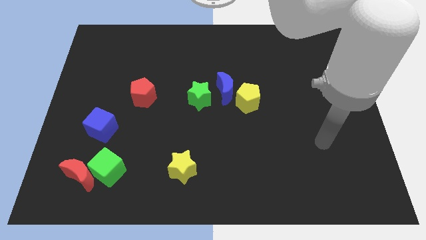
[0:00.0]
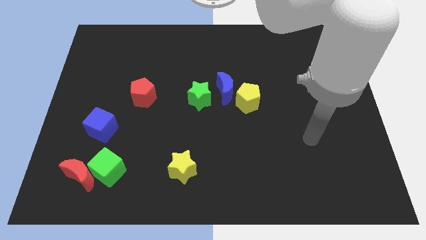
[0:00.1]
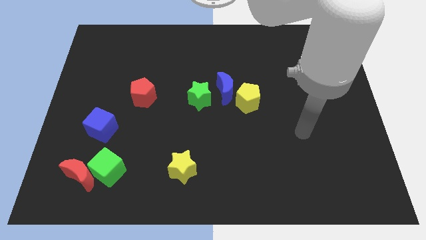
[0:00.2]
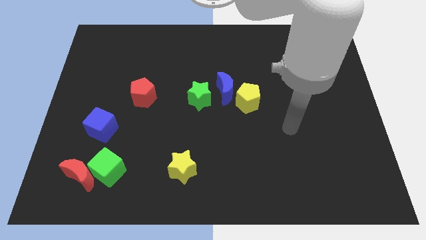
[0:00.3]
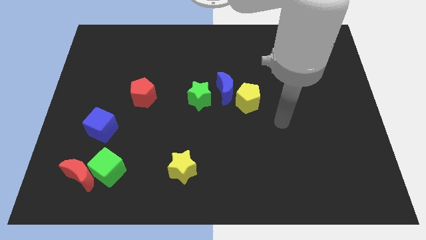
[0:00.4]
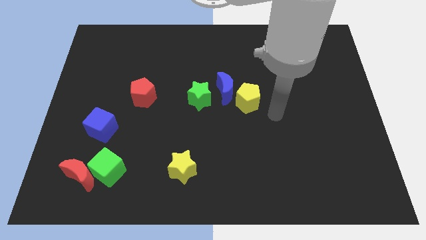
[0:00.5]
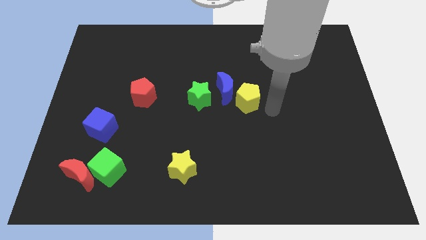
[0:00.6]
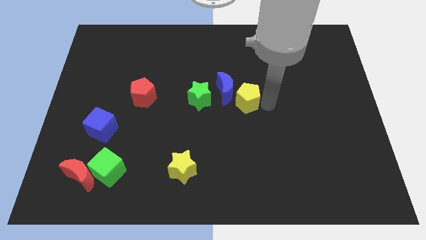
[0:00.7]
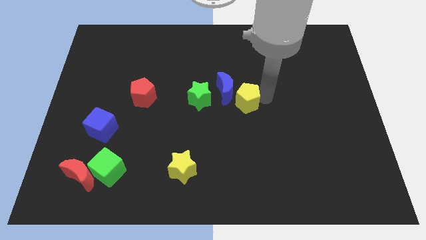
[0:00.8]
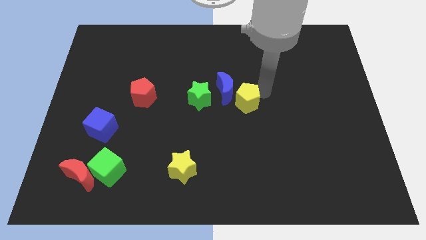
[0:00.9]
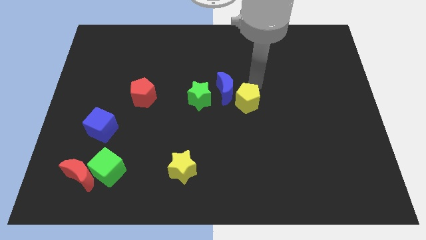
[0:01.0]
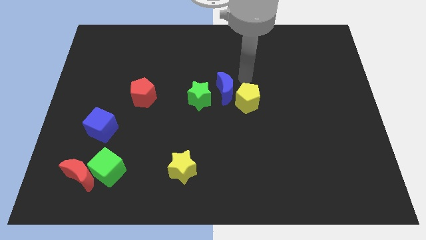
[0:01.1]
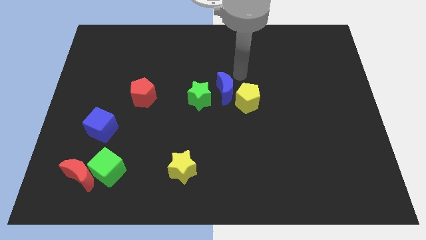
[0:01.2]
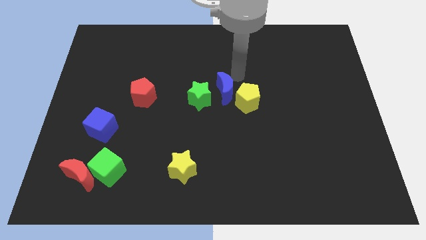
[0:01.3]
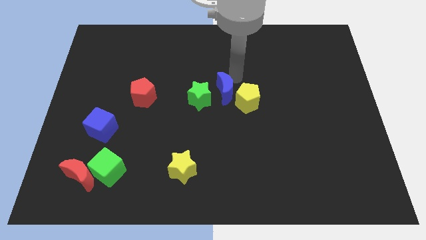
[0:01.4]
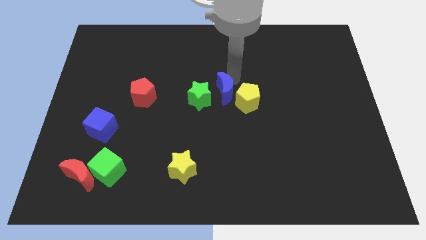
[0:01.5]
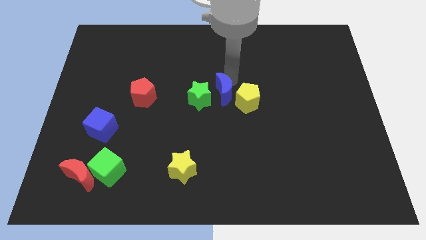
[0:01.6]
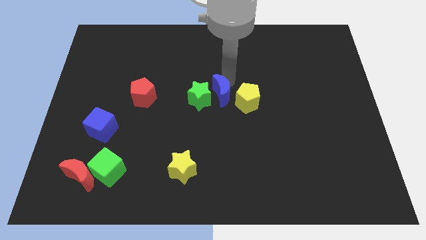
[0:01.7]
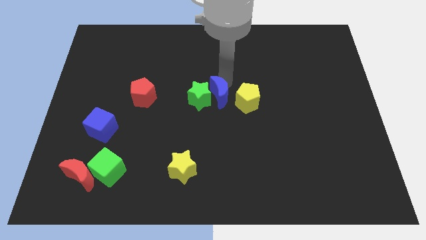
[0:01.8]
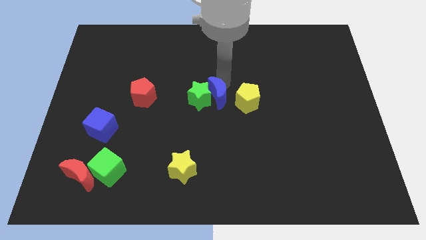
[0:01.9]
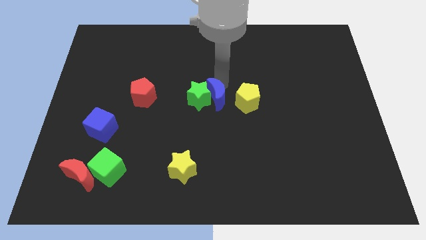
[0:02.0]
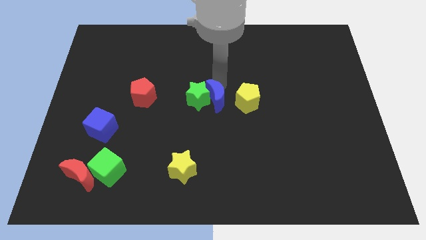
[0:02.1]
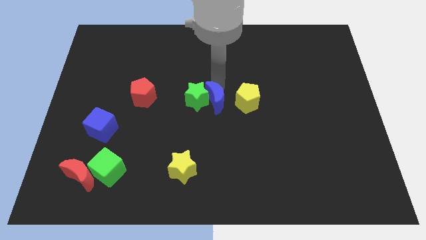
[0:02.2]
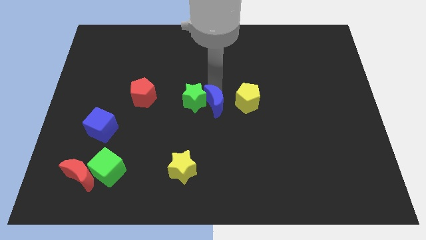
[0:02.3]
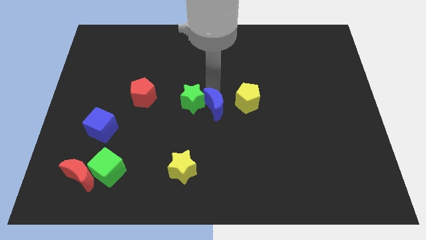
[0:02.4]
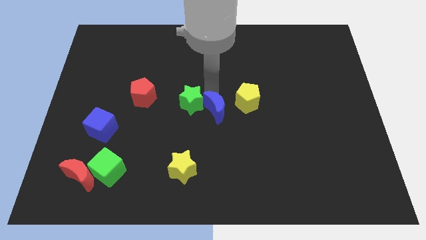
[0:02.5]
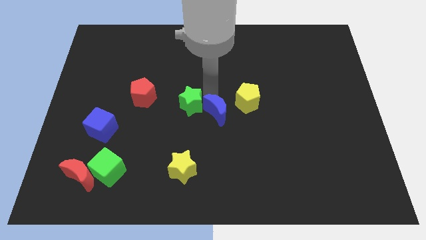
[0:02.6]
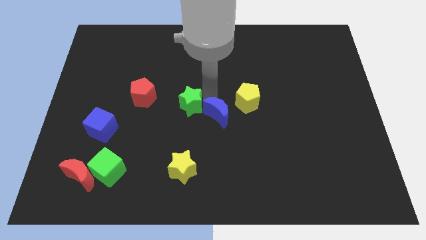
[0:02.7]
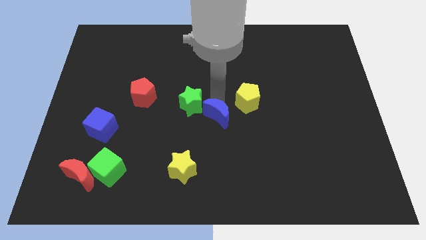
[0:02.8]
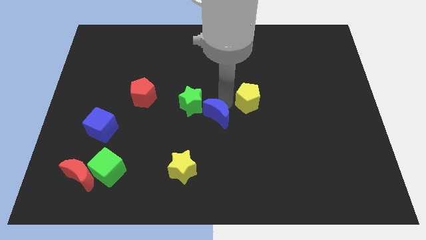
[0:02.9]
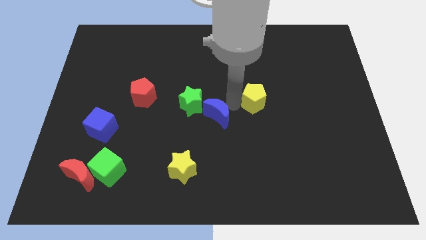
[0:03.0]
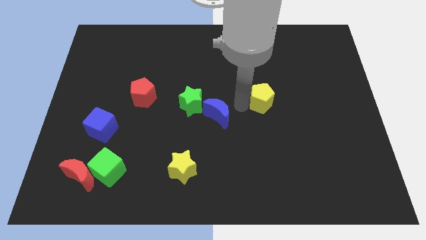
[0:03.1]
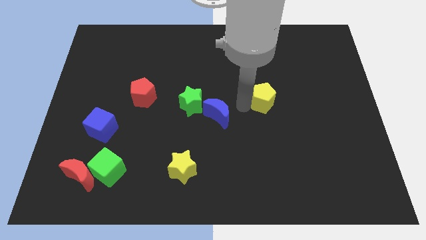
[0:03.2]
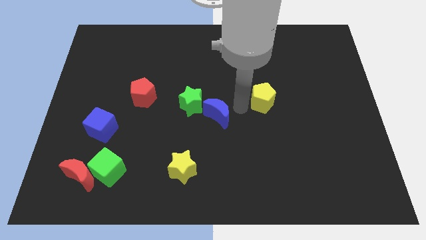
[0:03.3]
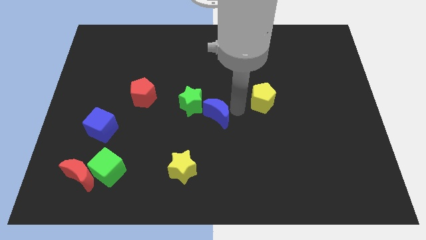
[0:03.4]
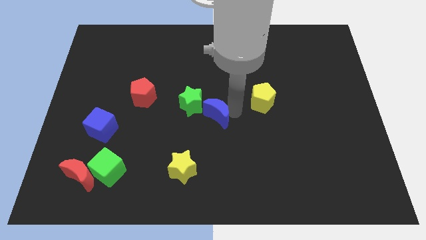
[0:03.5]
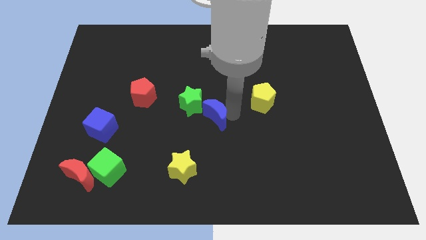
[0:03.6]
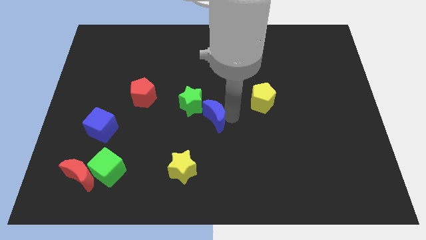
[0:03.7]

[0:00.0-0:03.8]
move the blue moon a little diagonally down and left

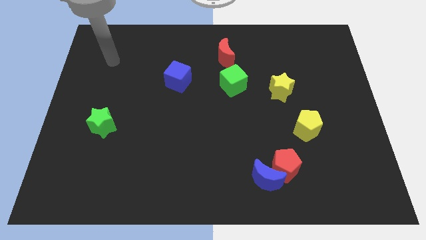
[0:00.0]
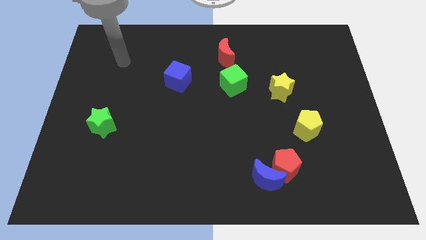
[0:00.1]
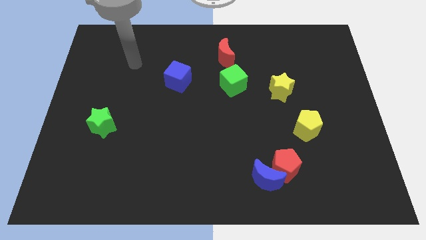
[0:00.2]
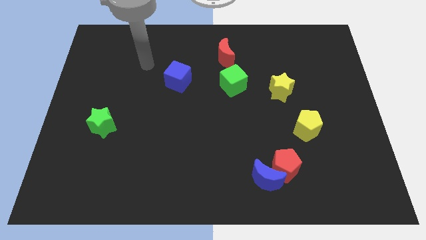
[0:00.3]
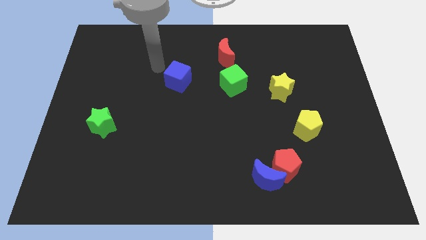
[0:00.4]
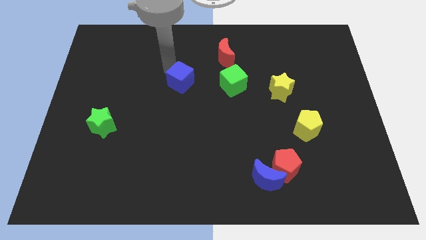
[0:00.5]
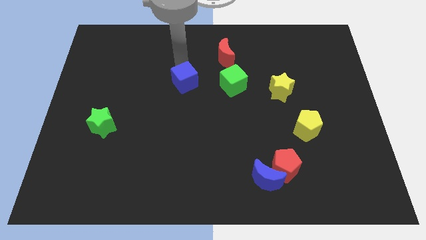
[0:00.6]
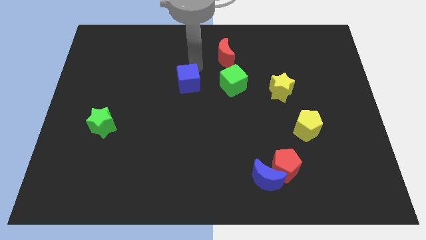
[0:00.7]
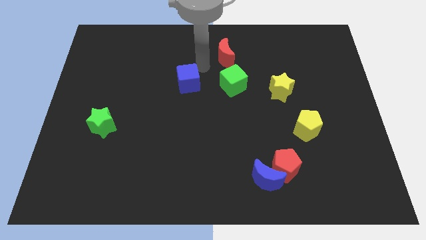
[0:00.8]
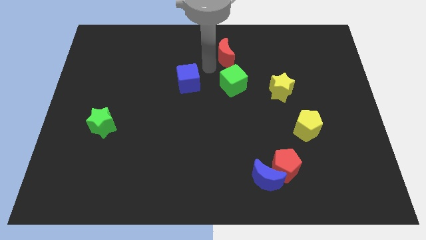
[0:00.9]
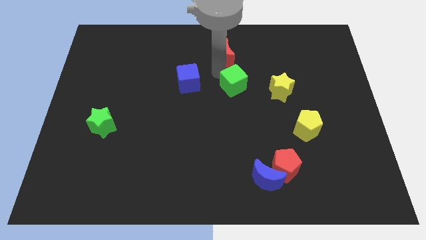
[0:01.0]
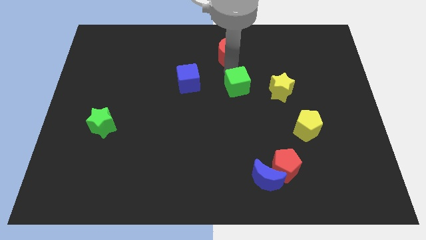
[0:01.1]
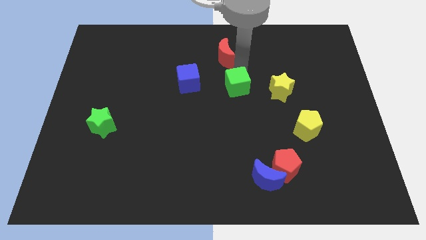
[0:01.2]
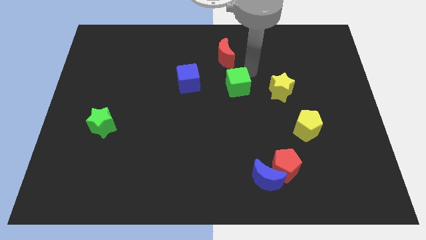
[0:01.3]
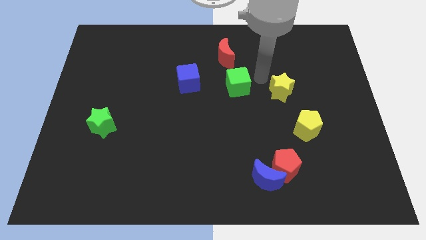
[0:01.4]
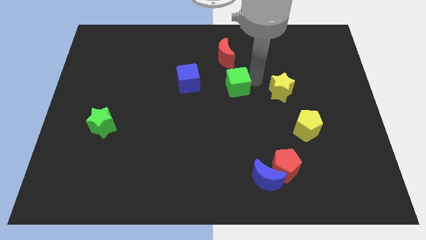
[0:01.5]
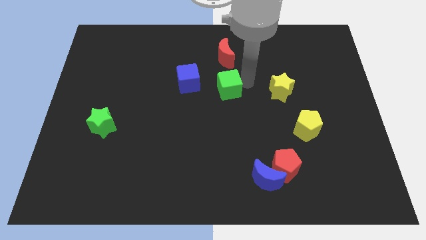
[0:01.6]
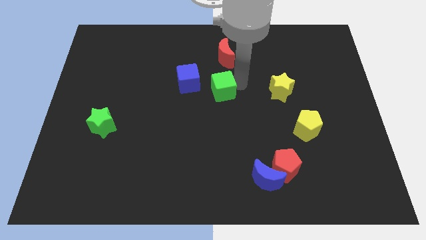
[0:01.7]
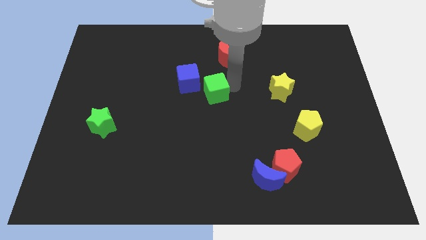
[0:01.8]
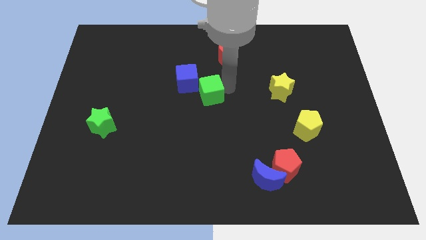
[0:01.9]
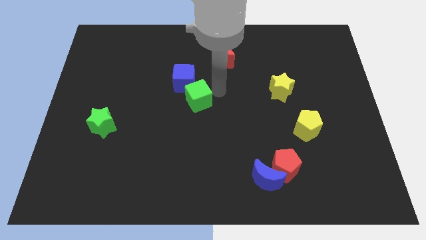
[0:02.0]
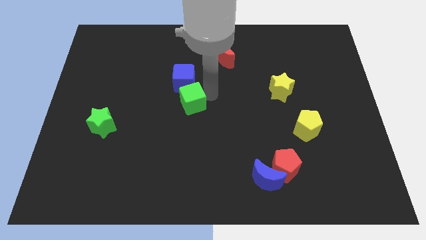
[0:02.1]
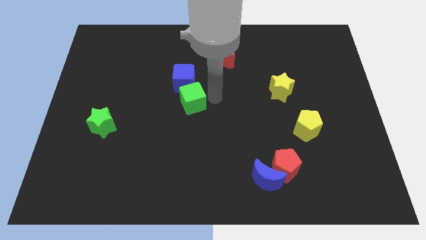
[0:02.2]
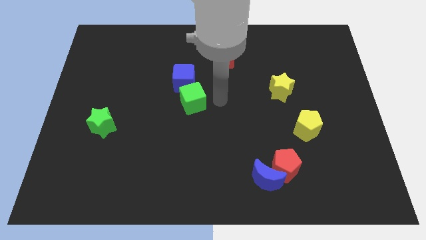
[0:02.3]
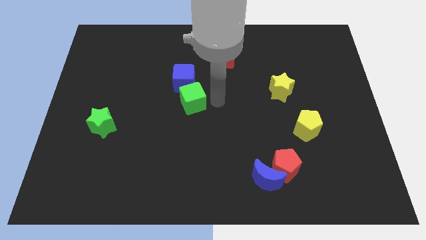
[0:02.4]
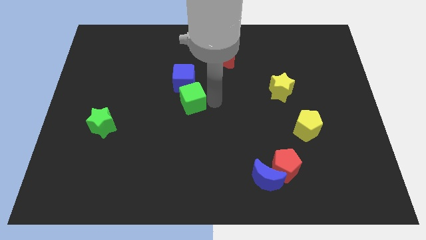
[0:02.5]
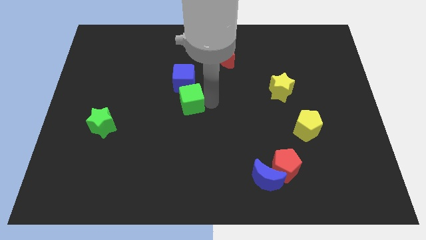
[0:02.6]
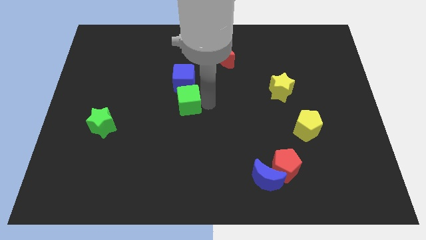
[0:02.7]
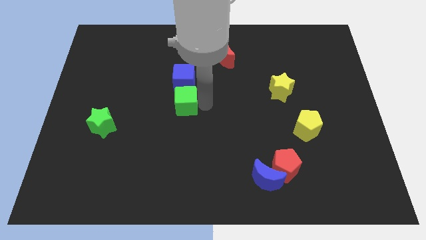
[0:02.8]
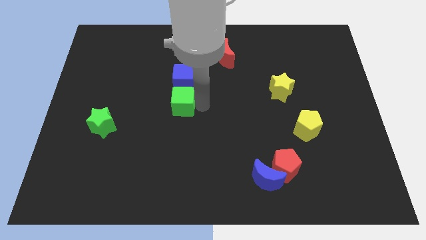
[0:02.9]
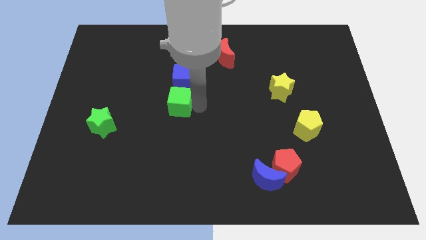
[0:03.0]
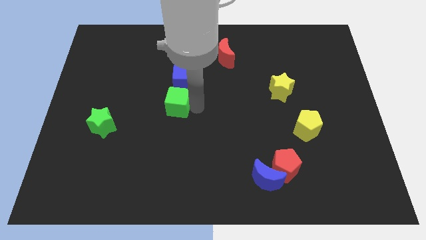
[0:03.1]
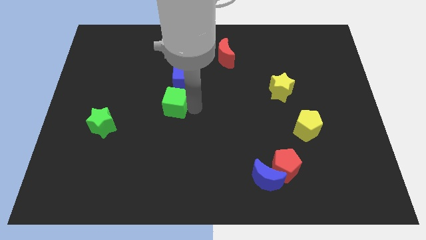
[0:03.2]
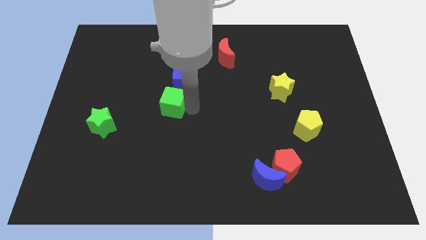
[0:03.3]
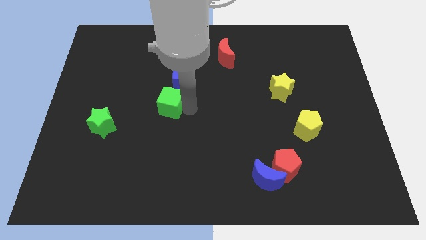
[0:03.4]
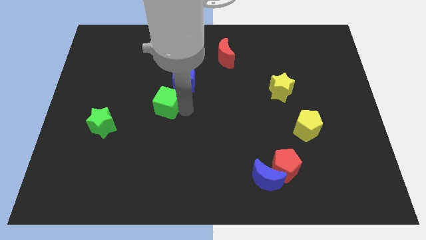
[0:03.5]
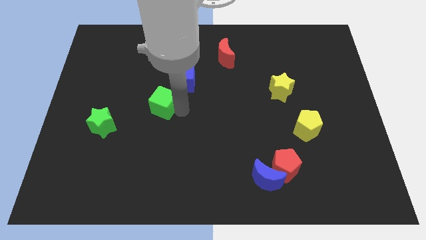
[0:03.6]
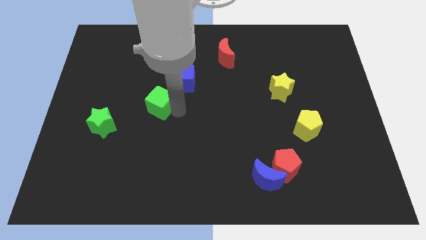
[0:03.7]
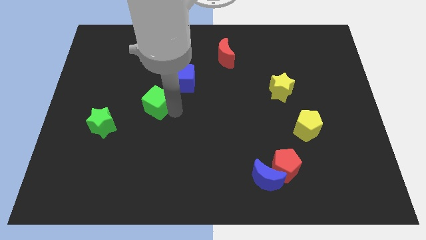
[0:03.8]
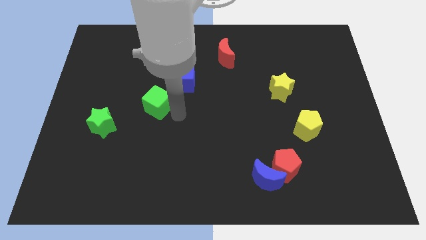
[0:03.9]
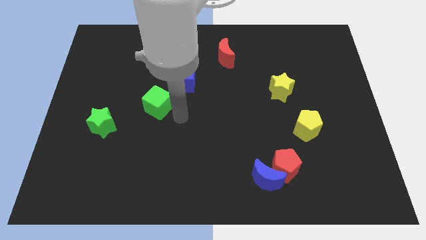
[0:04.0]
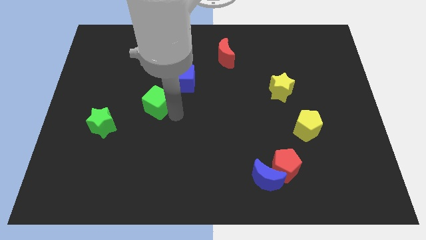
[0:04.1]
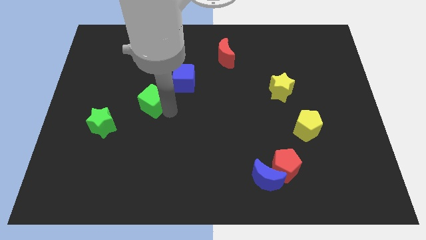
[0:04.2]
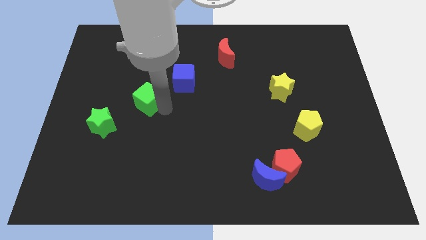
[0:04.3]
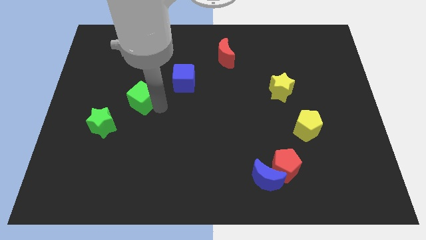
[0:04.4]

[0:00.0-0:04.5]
push the green cube left

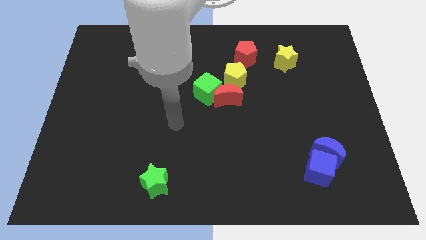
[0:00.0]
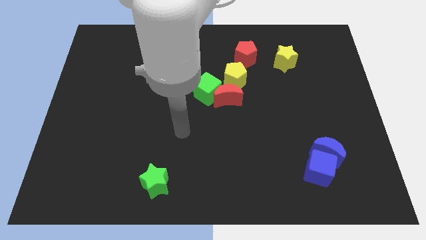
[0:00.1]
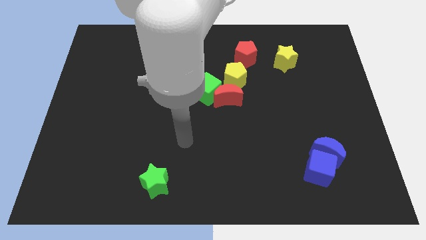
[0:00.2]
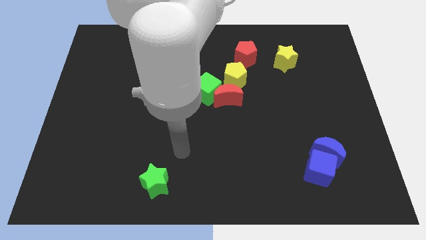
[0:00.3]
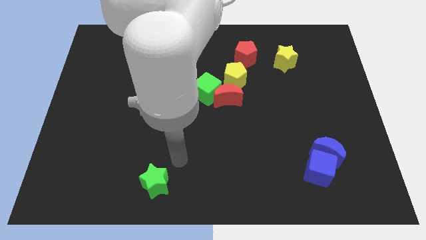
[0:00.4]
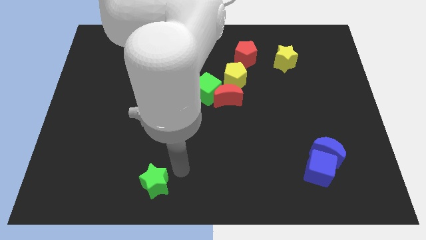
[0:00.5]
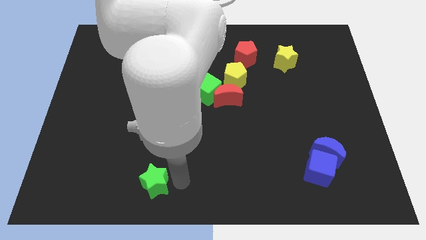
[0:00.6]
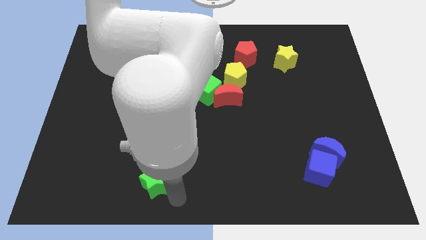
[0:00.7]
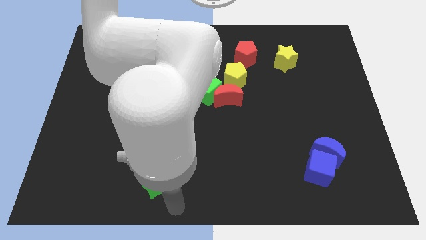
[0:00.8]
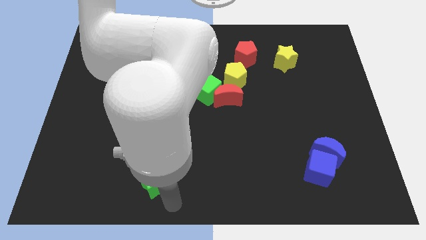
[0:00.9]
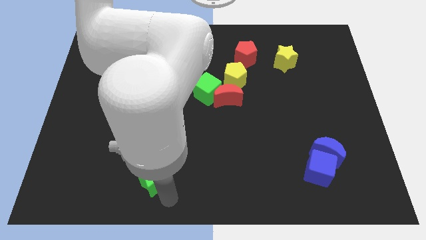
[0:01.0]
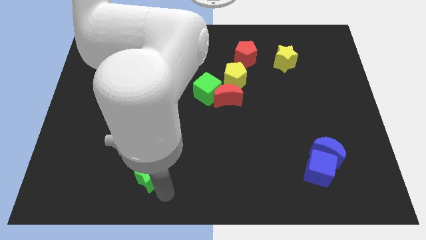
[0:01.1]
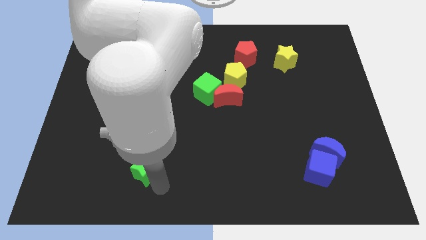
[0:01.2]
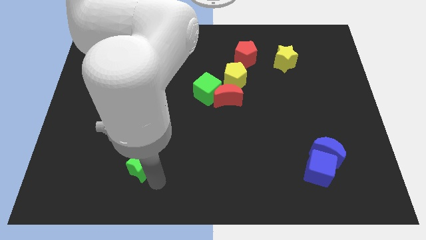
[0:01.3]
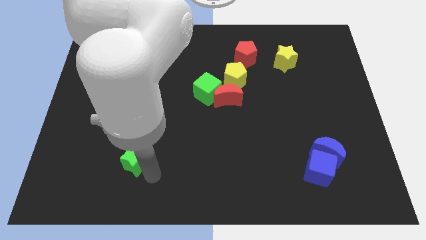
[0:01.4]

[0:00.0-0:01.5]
move the green star a bit diagonally up and left
